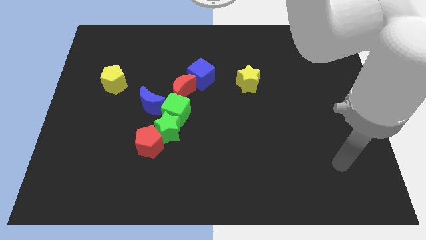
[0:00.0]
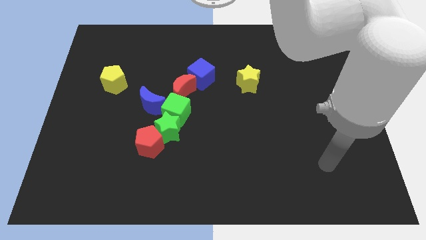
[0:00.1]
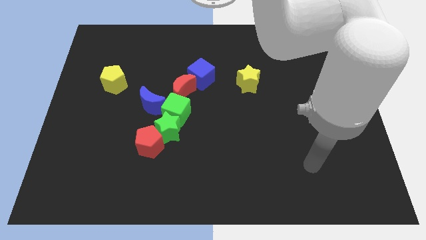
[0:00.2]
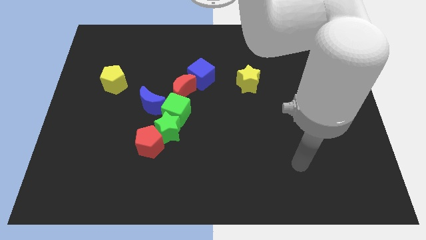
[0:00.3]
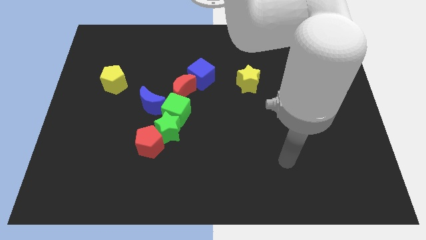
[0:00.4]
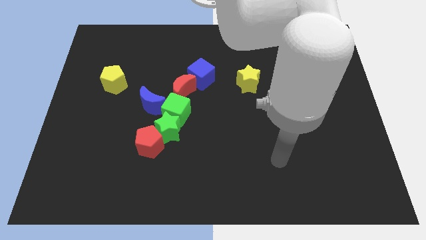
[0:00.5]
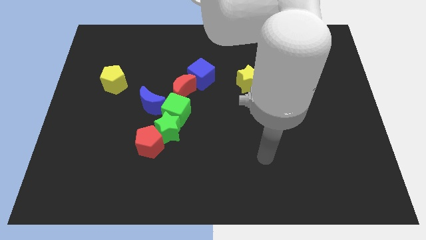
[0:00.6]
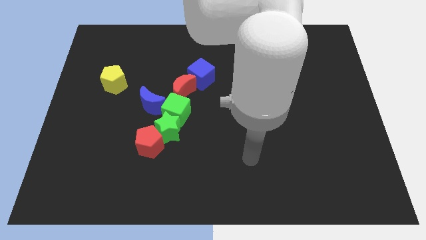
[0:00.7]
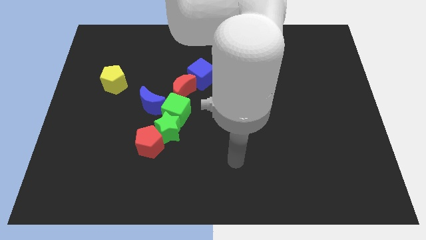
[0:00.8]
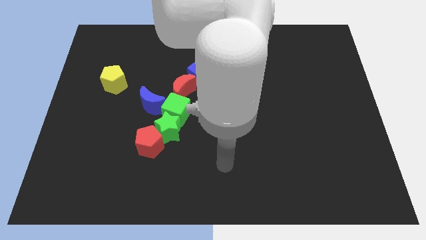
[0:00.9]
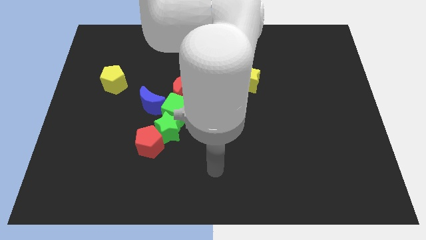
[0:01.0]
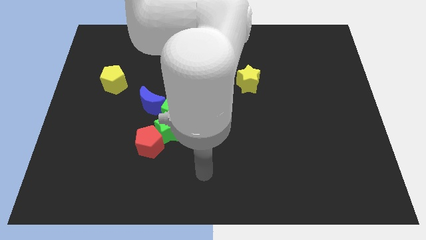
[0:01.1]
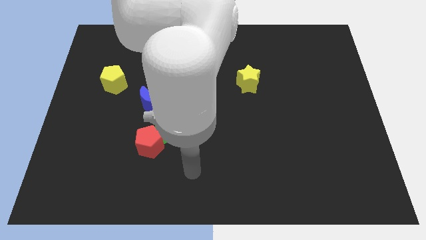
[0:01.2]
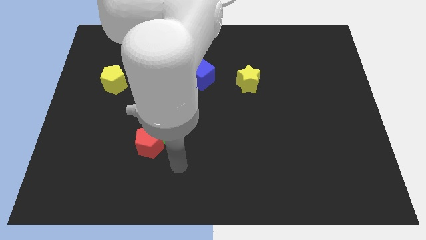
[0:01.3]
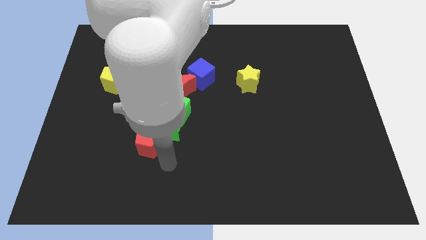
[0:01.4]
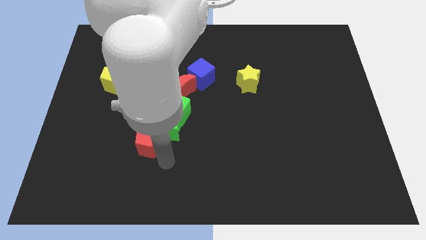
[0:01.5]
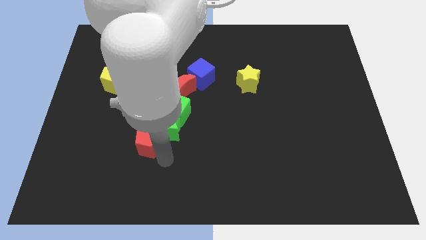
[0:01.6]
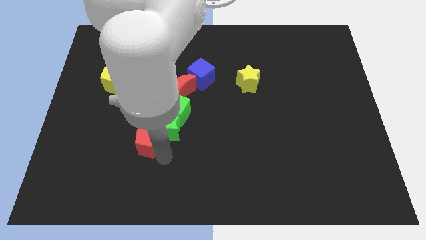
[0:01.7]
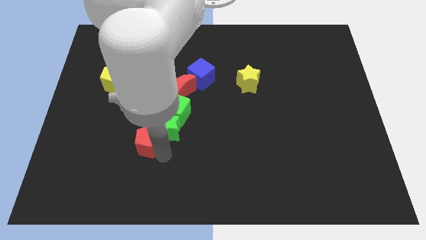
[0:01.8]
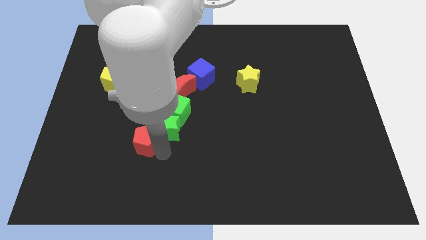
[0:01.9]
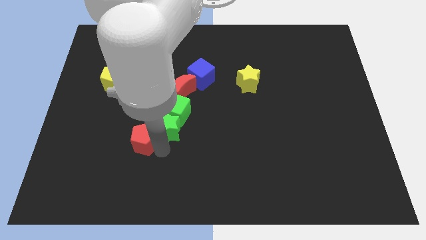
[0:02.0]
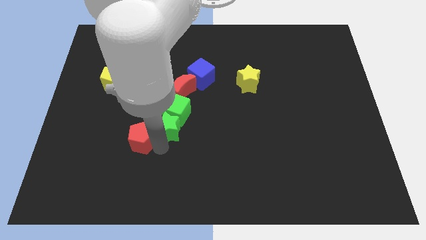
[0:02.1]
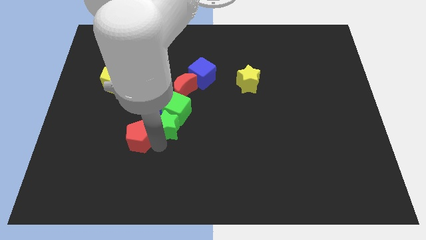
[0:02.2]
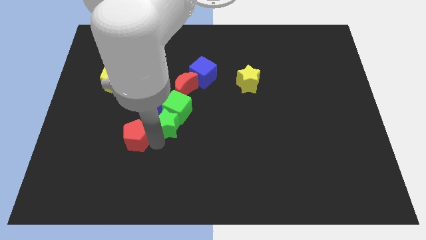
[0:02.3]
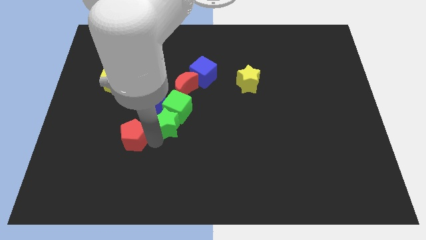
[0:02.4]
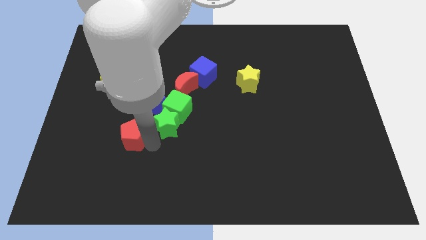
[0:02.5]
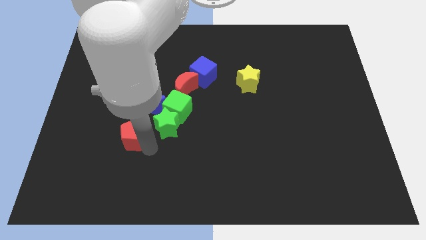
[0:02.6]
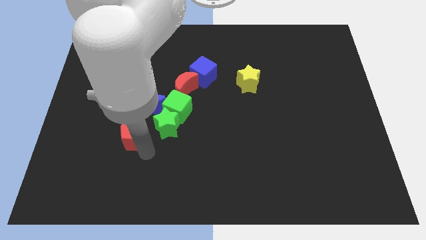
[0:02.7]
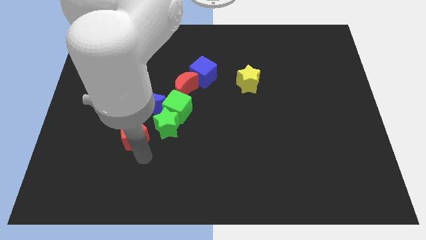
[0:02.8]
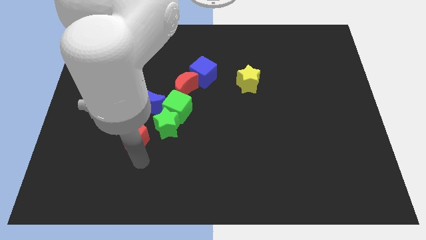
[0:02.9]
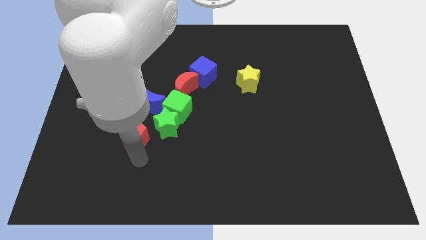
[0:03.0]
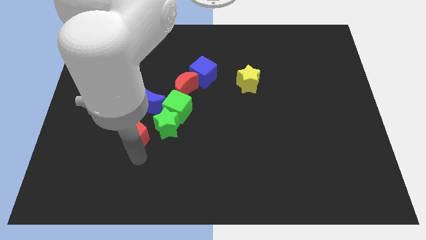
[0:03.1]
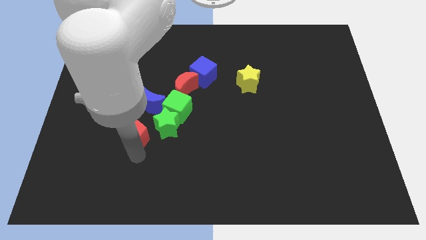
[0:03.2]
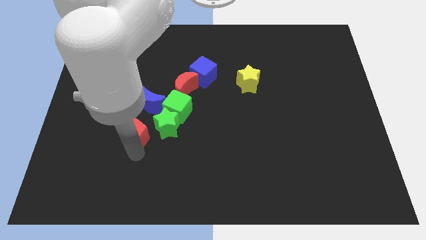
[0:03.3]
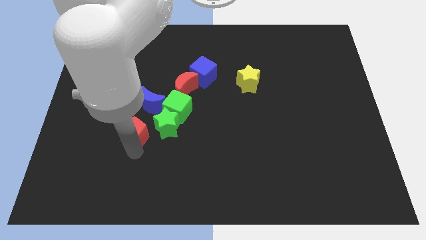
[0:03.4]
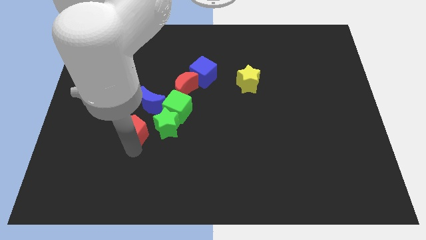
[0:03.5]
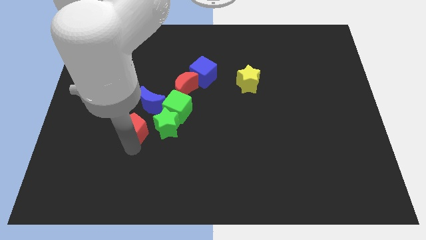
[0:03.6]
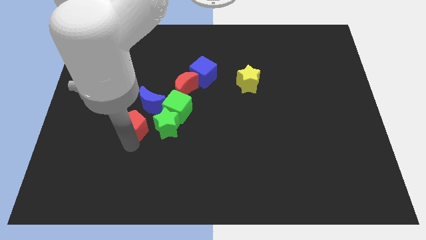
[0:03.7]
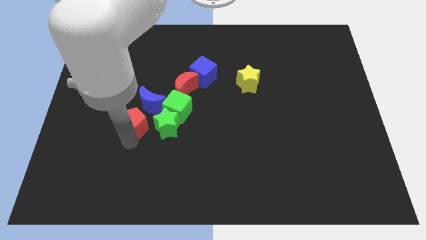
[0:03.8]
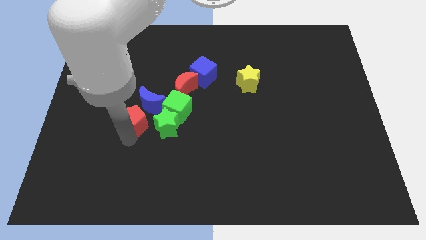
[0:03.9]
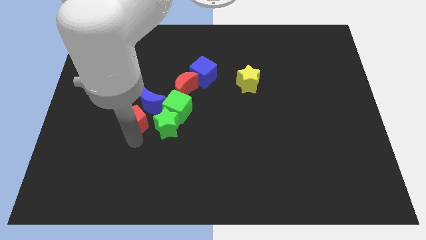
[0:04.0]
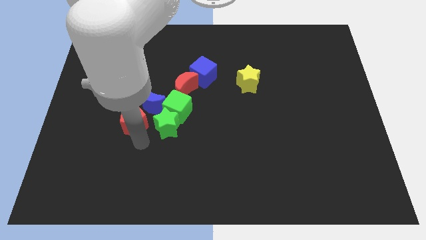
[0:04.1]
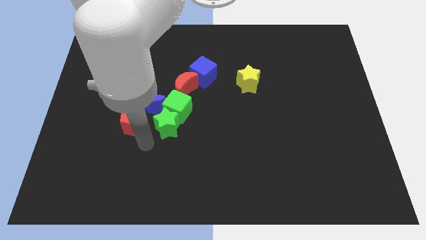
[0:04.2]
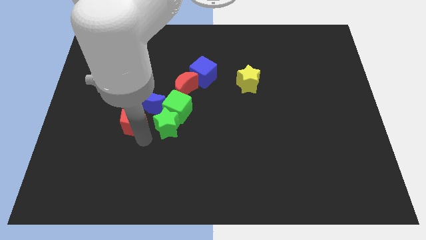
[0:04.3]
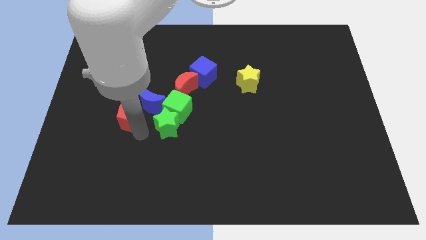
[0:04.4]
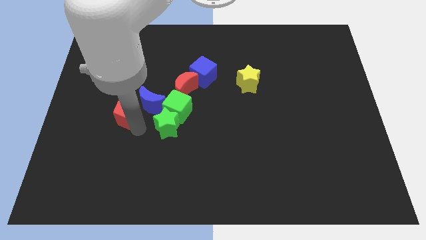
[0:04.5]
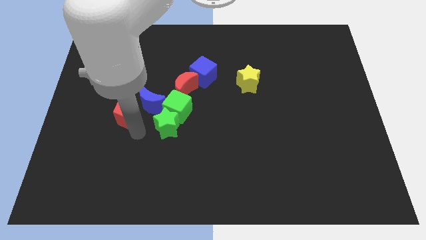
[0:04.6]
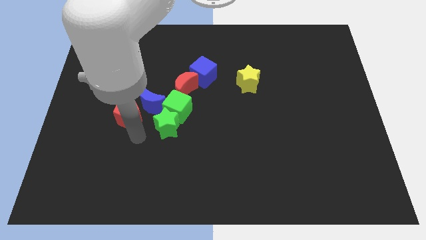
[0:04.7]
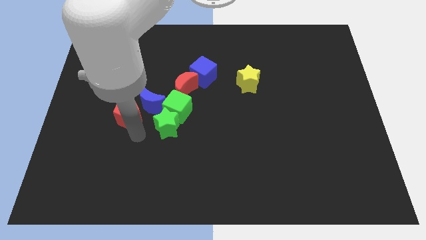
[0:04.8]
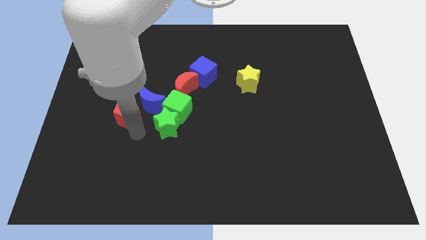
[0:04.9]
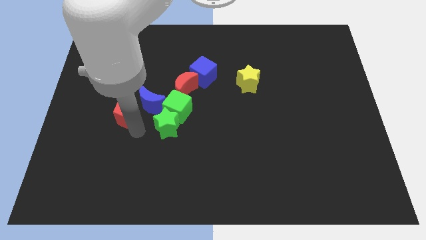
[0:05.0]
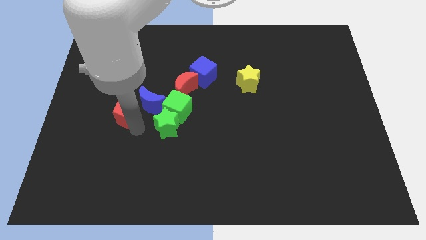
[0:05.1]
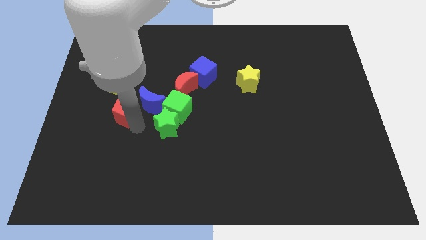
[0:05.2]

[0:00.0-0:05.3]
slightly move the red pentagon upwards

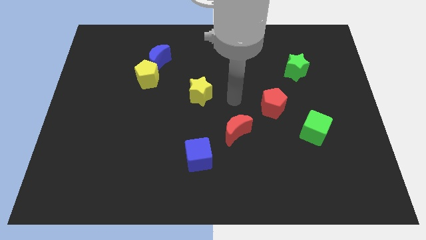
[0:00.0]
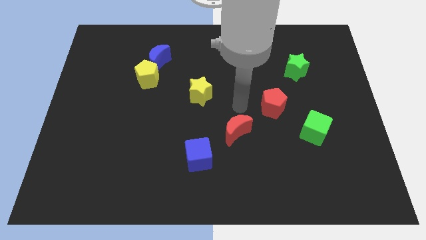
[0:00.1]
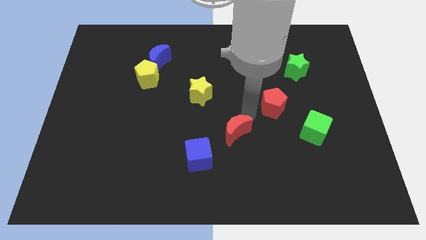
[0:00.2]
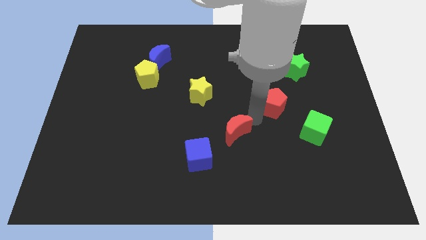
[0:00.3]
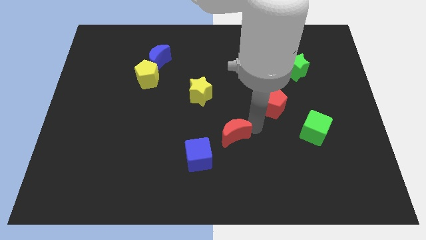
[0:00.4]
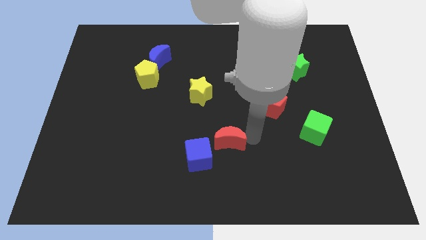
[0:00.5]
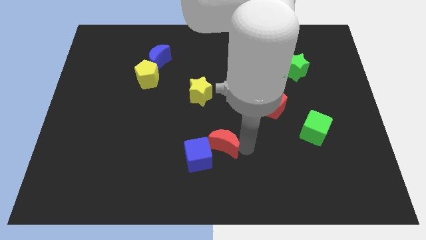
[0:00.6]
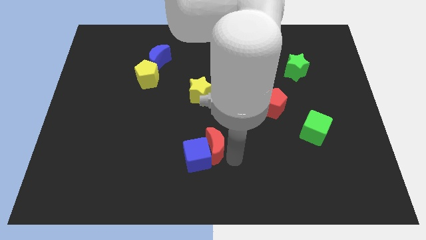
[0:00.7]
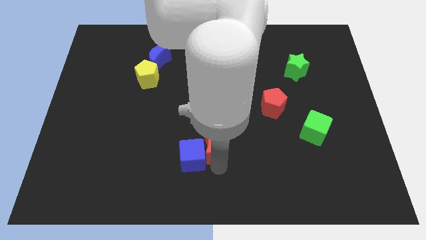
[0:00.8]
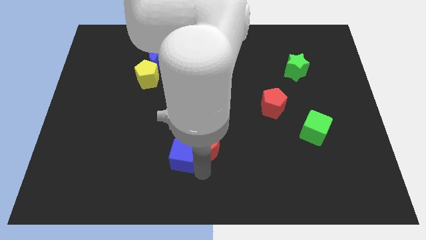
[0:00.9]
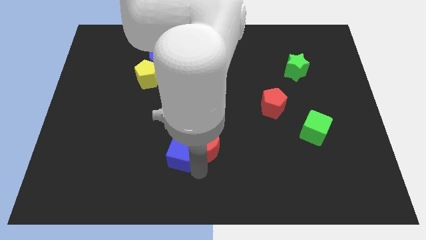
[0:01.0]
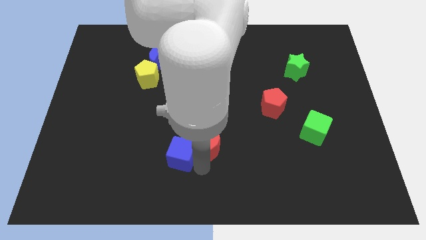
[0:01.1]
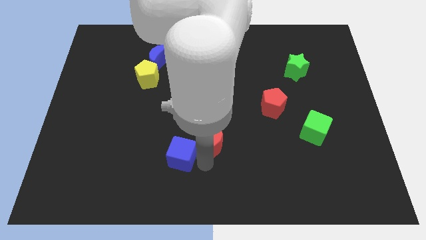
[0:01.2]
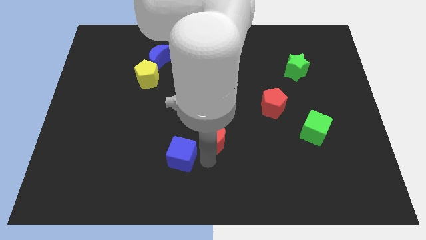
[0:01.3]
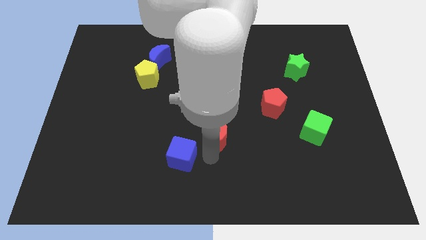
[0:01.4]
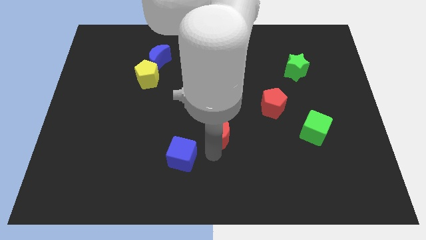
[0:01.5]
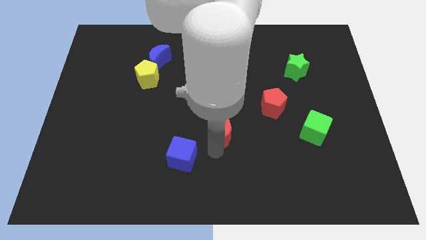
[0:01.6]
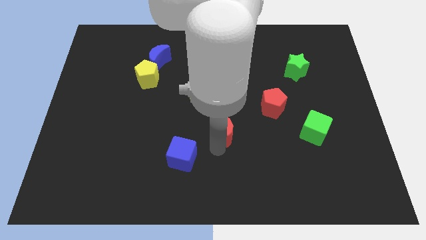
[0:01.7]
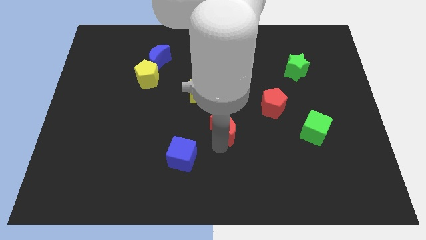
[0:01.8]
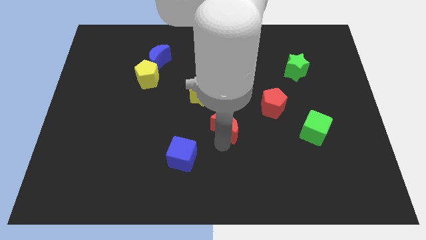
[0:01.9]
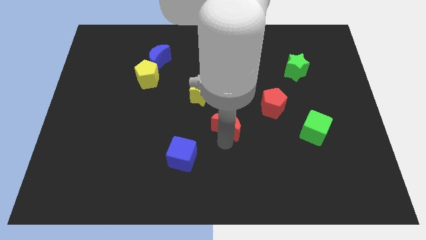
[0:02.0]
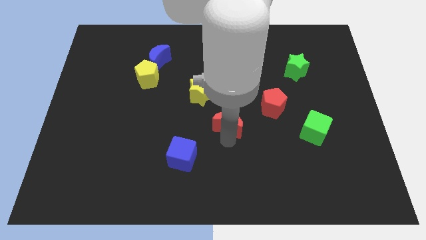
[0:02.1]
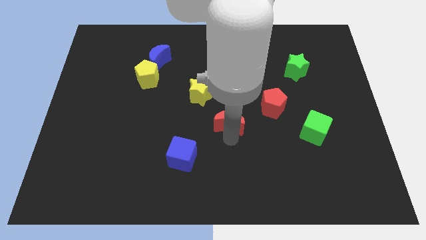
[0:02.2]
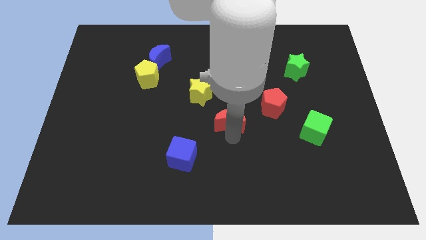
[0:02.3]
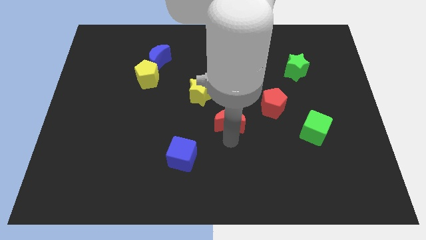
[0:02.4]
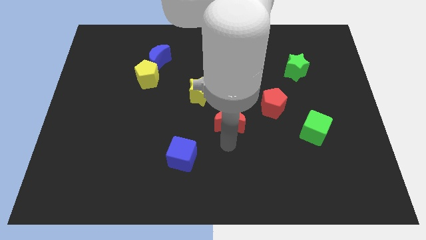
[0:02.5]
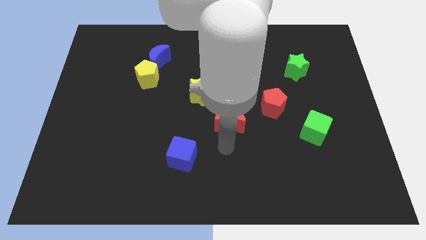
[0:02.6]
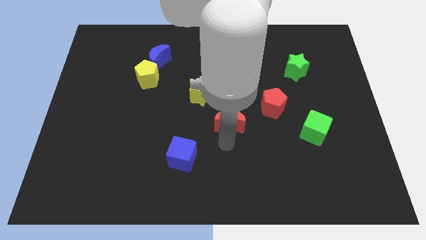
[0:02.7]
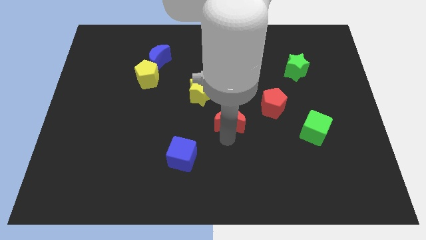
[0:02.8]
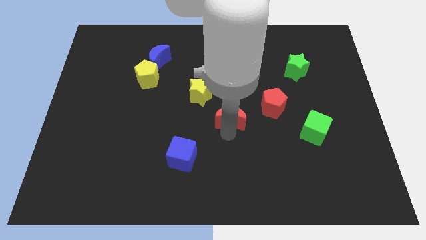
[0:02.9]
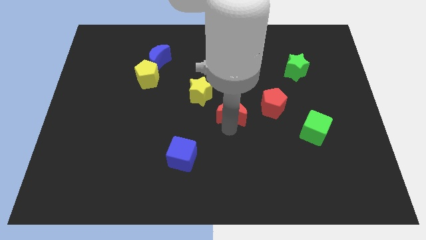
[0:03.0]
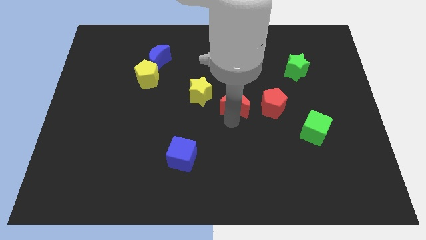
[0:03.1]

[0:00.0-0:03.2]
move the red moon up a bit
